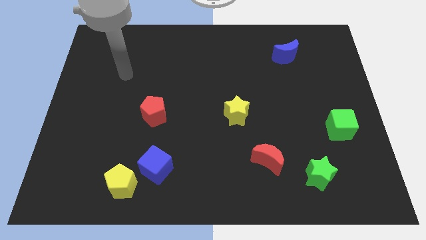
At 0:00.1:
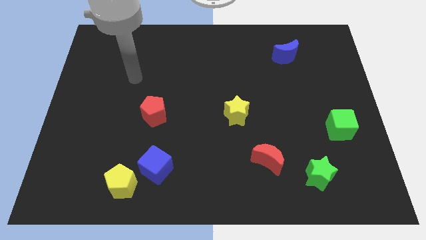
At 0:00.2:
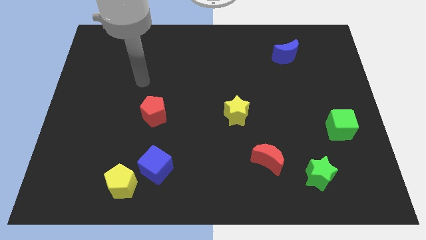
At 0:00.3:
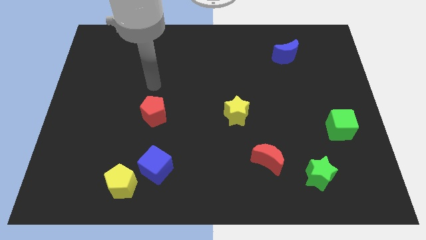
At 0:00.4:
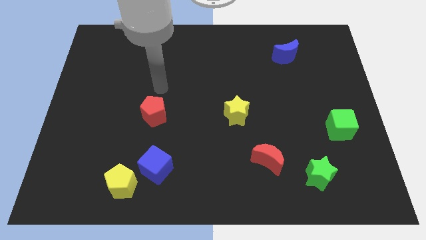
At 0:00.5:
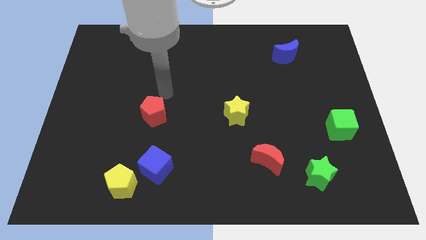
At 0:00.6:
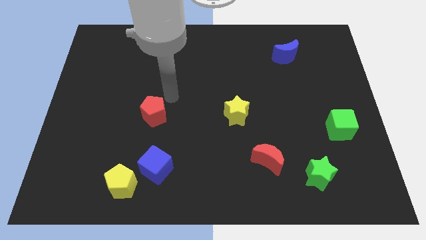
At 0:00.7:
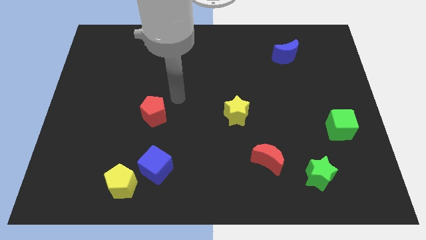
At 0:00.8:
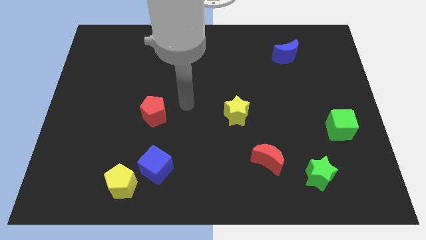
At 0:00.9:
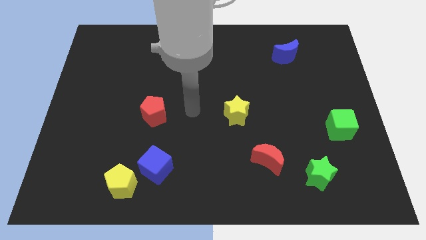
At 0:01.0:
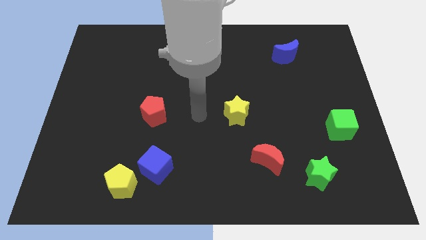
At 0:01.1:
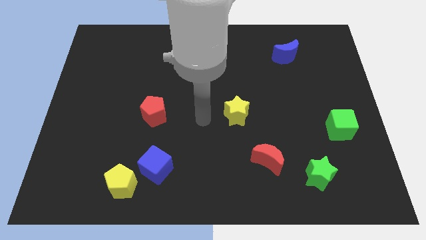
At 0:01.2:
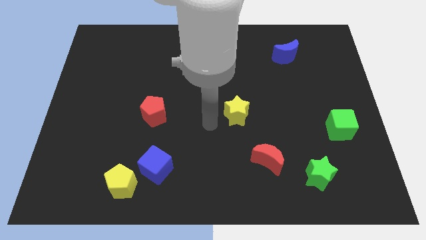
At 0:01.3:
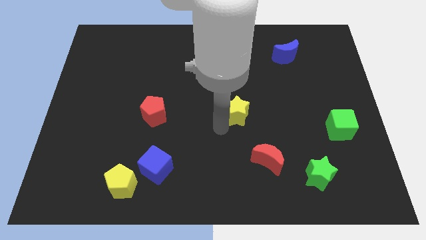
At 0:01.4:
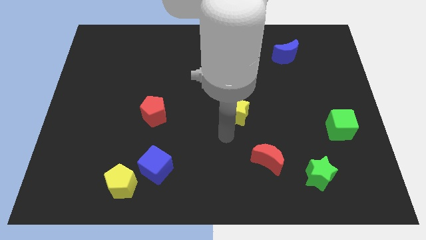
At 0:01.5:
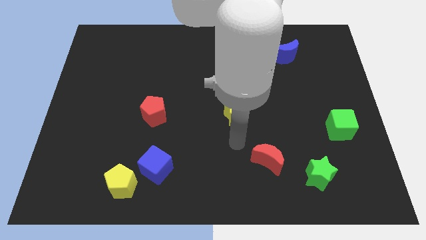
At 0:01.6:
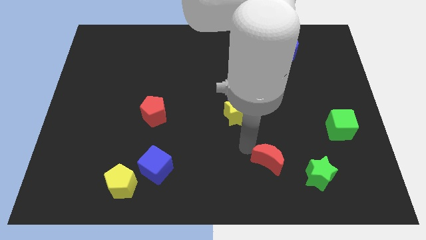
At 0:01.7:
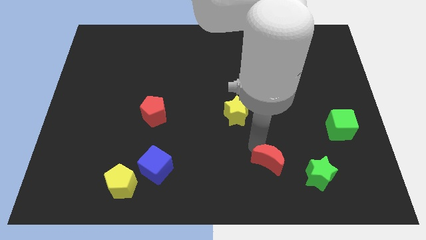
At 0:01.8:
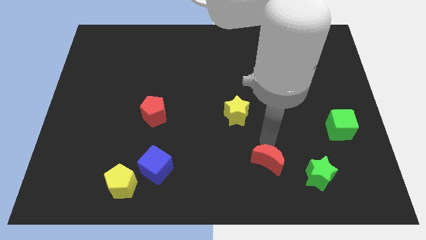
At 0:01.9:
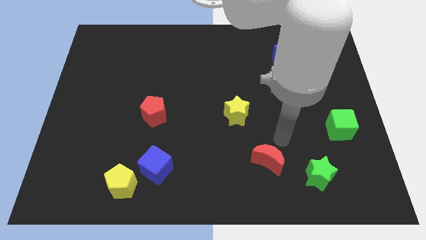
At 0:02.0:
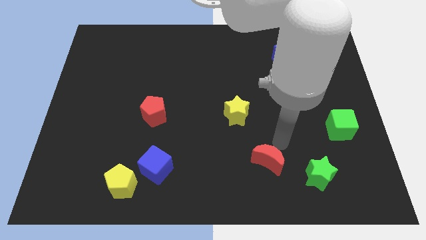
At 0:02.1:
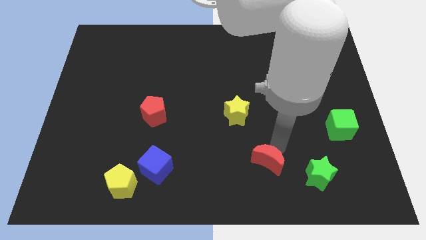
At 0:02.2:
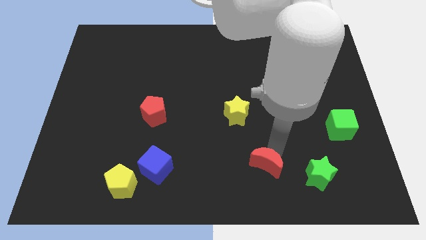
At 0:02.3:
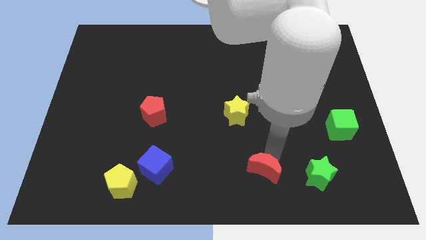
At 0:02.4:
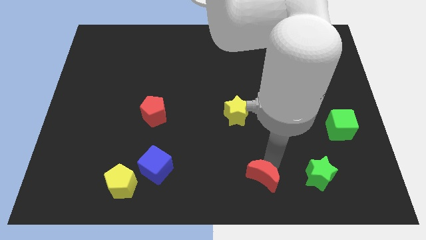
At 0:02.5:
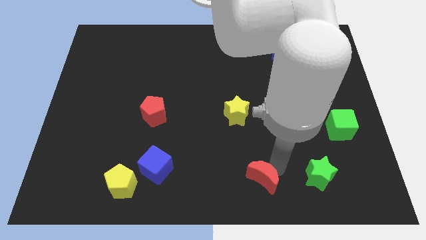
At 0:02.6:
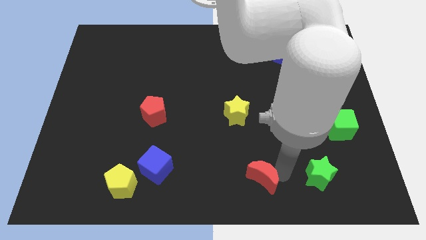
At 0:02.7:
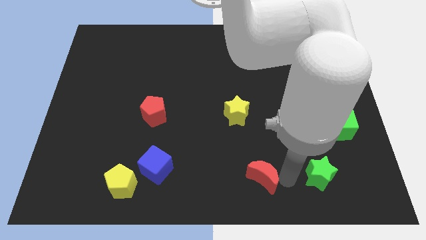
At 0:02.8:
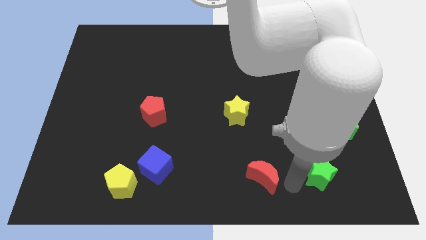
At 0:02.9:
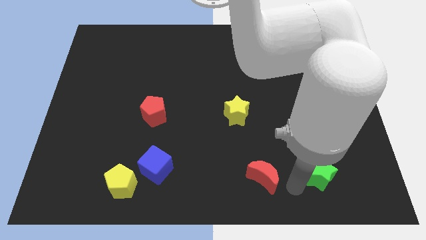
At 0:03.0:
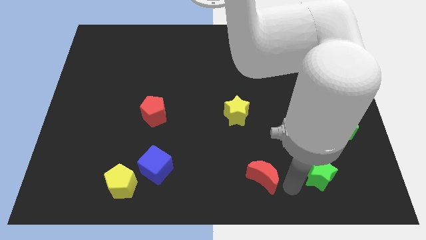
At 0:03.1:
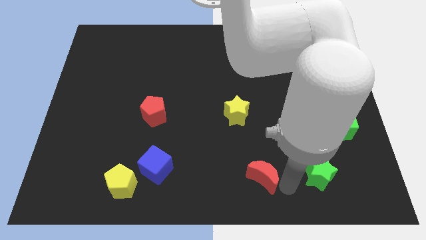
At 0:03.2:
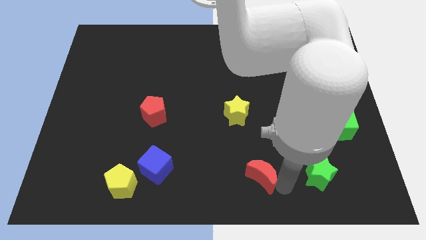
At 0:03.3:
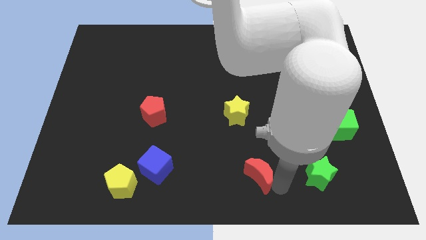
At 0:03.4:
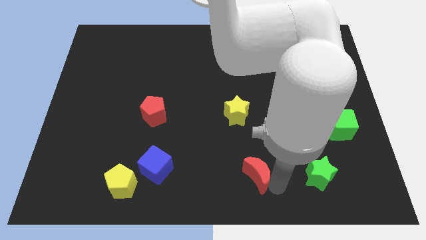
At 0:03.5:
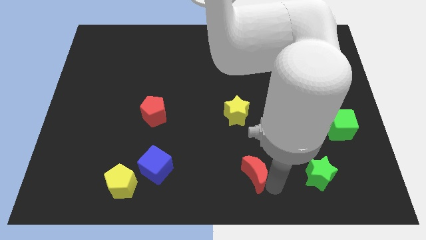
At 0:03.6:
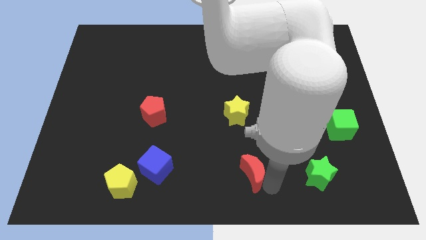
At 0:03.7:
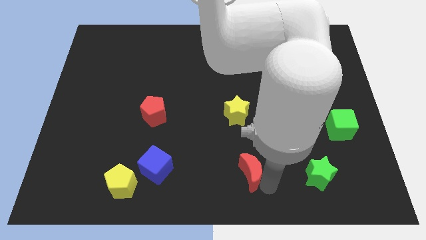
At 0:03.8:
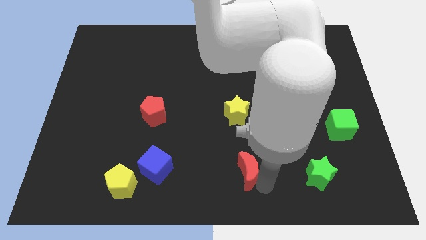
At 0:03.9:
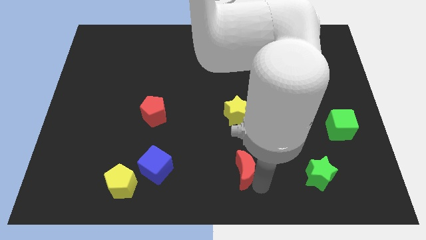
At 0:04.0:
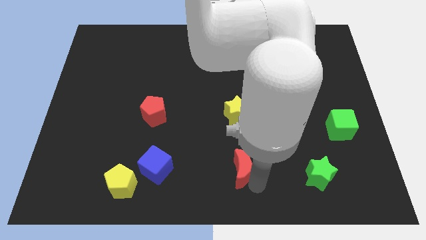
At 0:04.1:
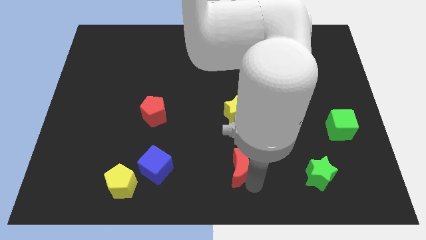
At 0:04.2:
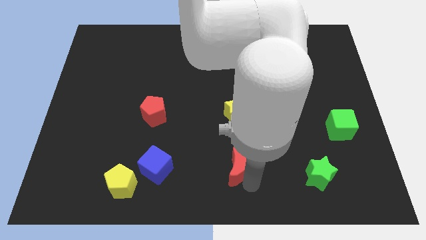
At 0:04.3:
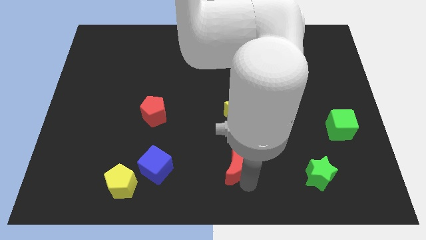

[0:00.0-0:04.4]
slightly slide the red moon to the left

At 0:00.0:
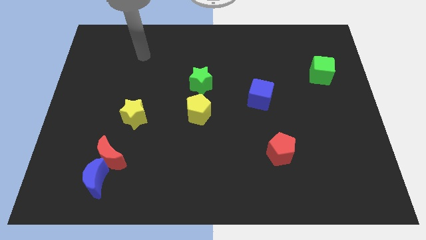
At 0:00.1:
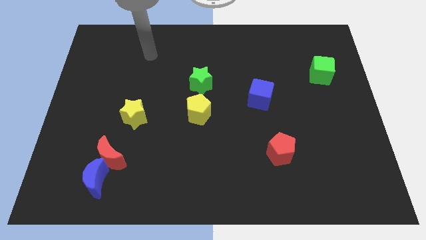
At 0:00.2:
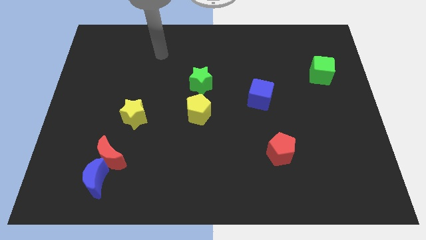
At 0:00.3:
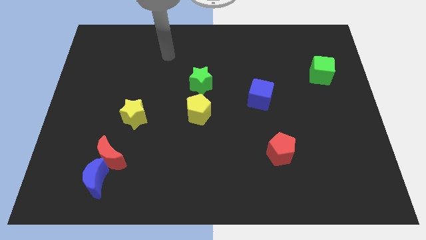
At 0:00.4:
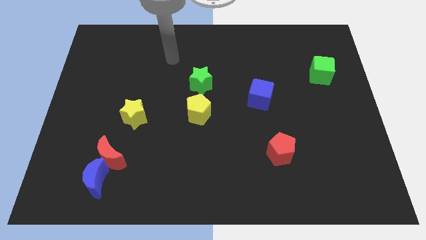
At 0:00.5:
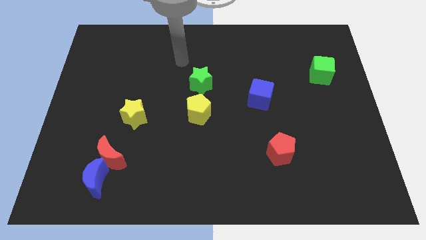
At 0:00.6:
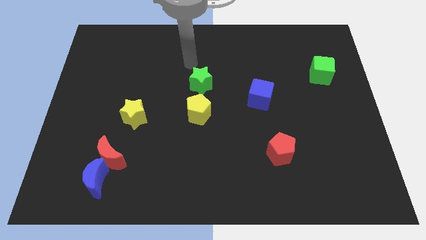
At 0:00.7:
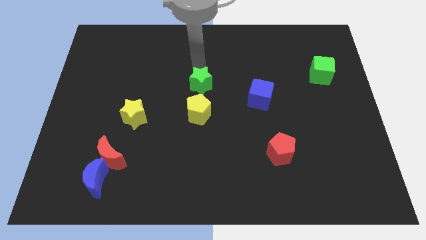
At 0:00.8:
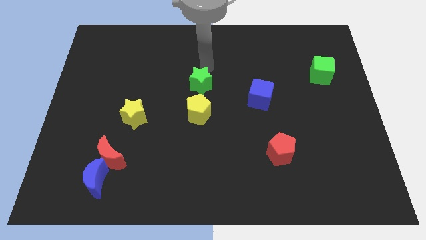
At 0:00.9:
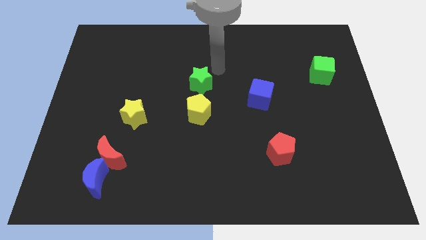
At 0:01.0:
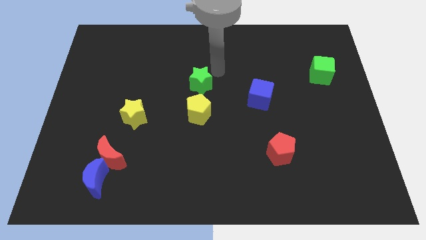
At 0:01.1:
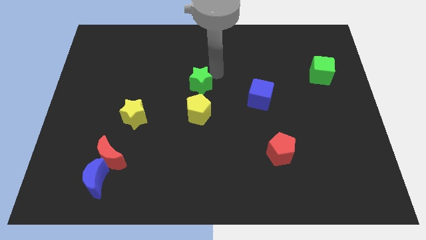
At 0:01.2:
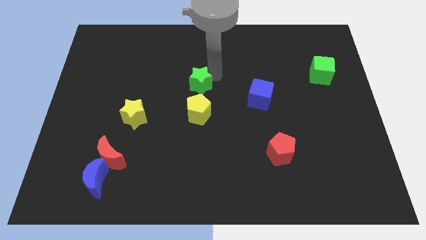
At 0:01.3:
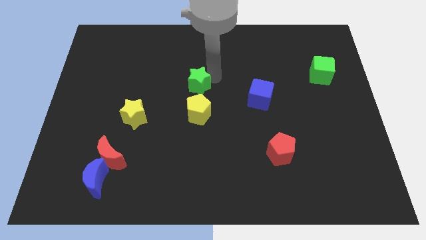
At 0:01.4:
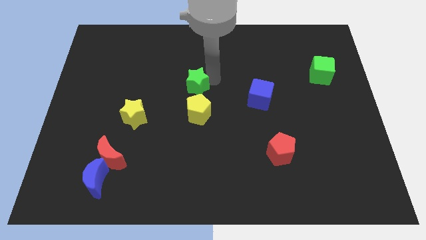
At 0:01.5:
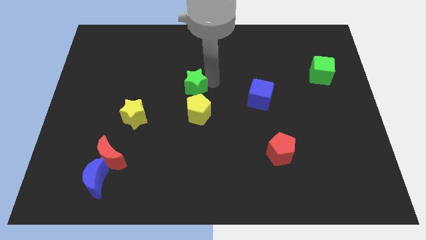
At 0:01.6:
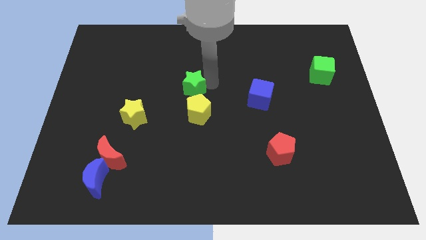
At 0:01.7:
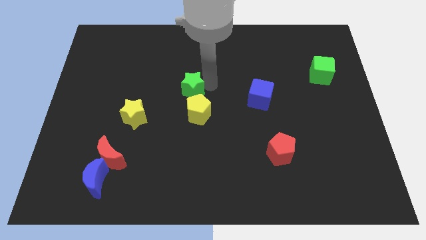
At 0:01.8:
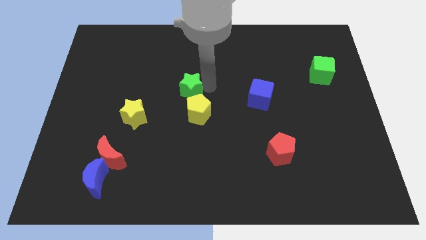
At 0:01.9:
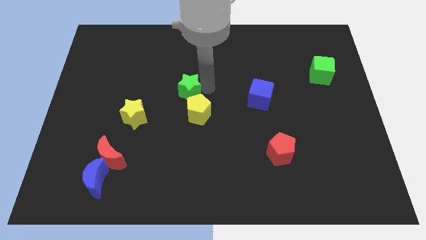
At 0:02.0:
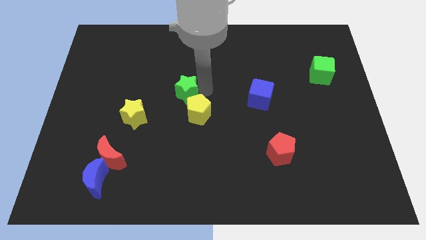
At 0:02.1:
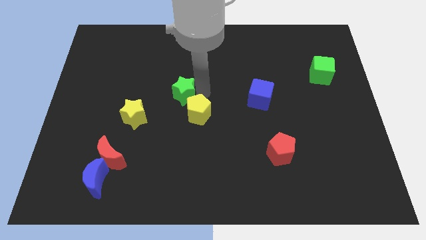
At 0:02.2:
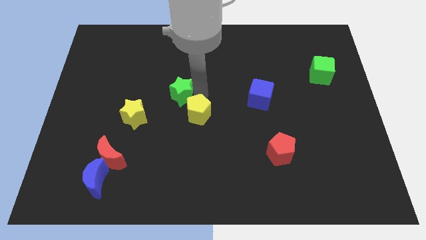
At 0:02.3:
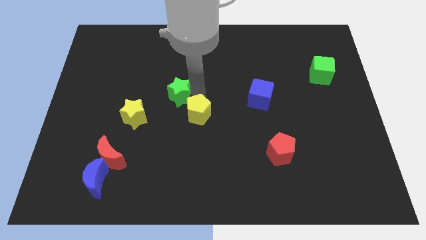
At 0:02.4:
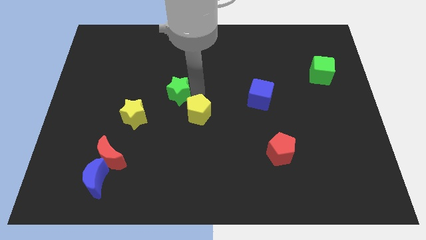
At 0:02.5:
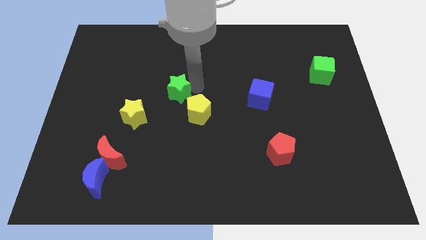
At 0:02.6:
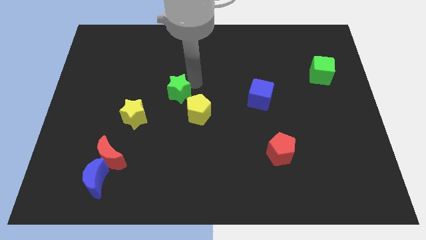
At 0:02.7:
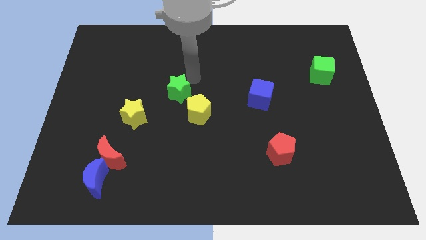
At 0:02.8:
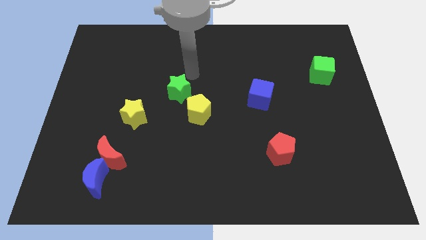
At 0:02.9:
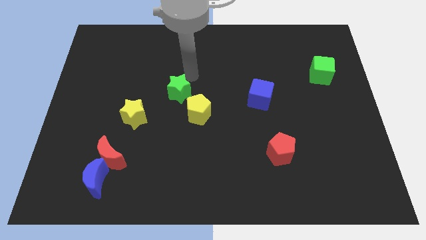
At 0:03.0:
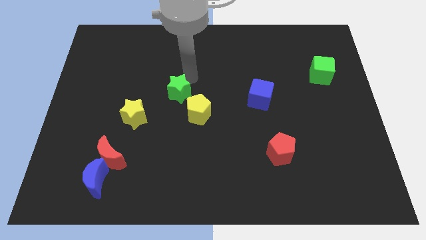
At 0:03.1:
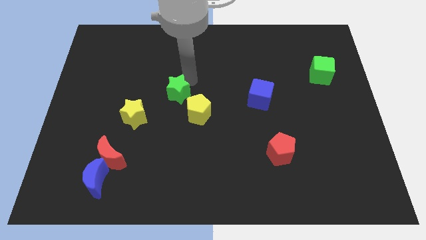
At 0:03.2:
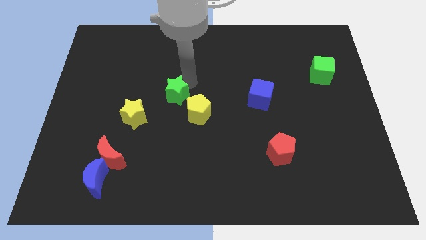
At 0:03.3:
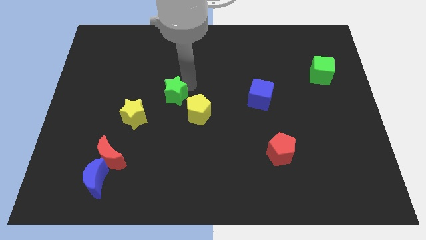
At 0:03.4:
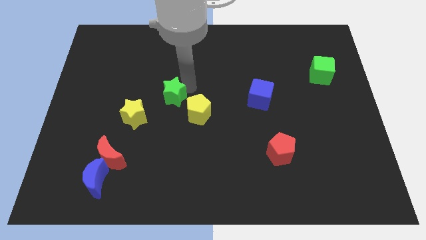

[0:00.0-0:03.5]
slightly move the green star downwards and to the left diagonally

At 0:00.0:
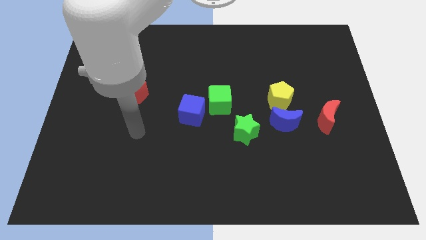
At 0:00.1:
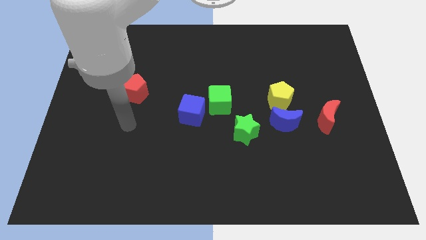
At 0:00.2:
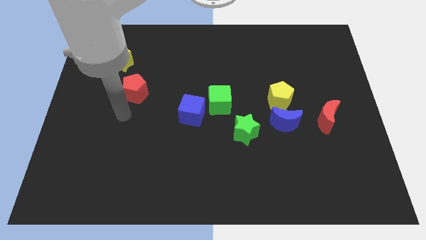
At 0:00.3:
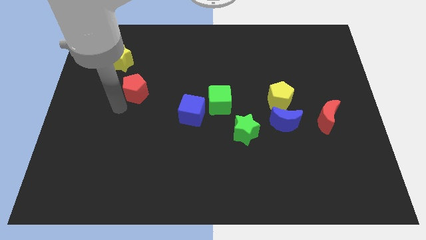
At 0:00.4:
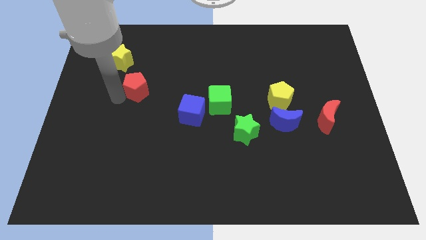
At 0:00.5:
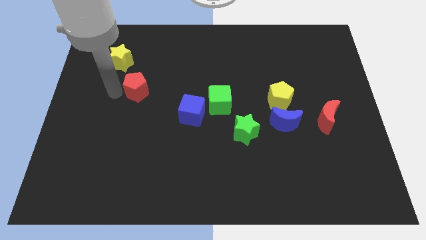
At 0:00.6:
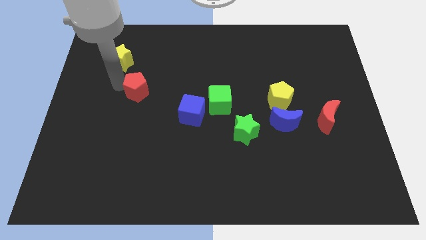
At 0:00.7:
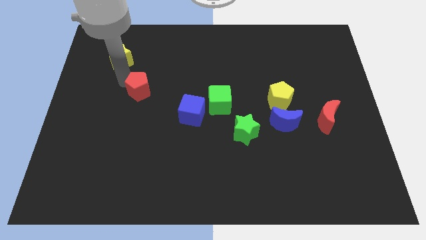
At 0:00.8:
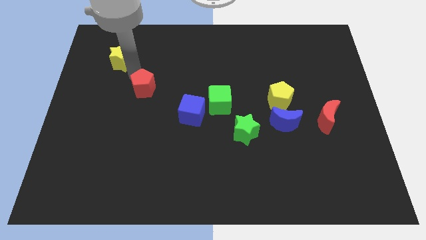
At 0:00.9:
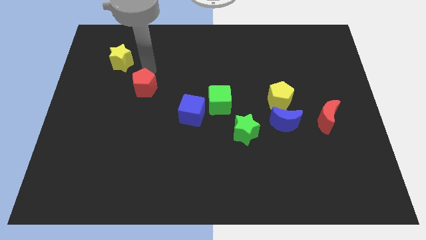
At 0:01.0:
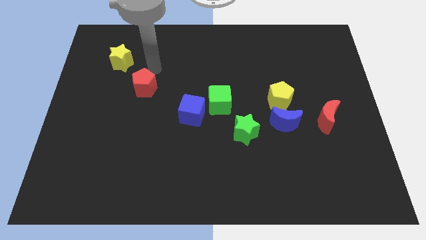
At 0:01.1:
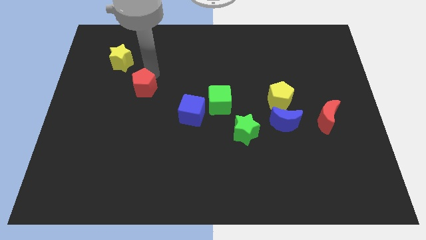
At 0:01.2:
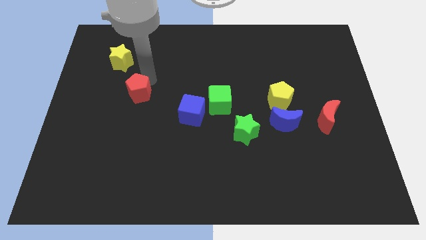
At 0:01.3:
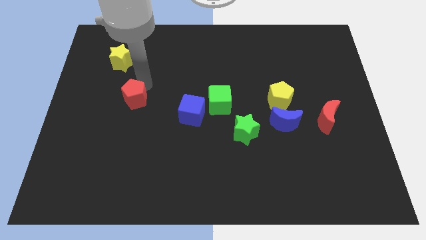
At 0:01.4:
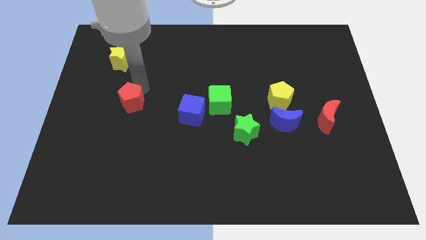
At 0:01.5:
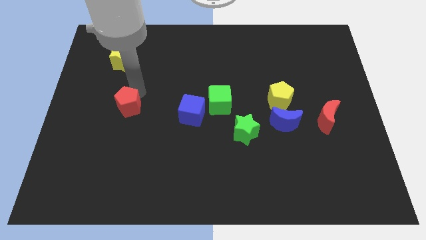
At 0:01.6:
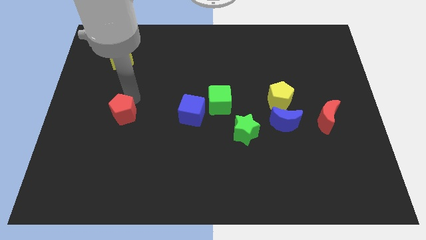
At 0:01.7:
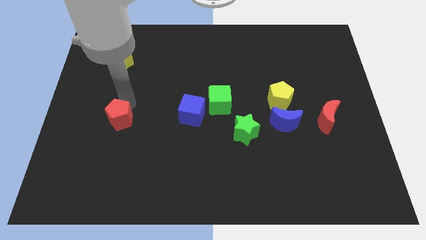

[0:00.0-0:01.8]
move the red pentagon a little bit down
